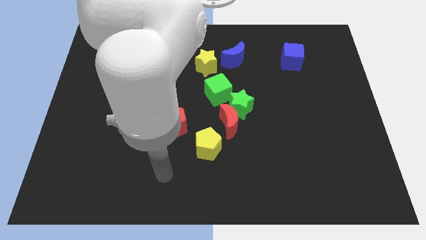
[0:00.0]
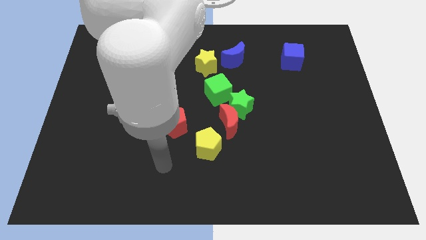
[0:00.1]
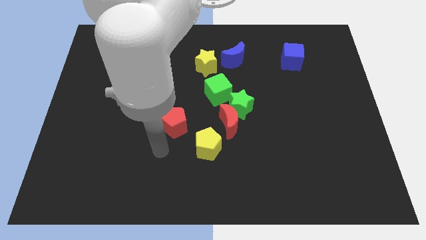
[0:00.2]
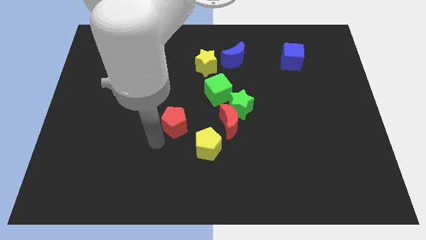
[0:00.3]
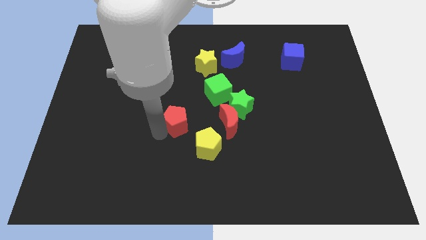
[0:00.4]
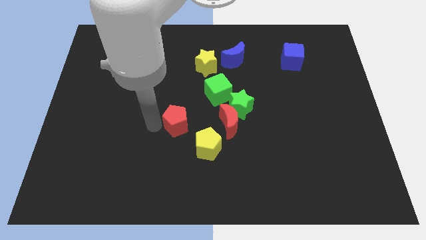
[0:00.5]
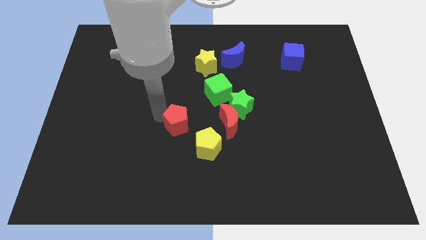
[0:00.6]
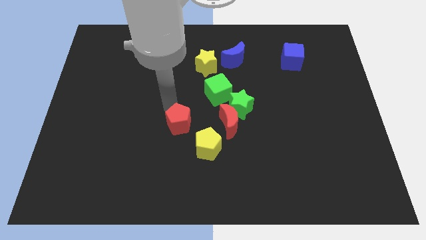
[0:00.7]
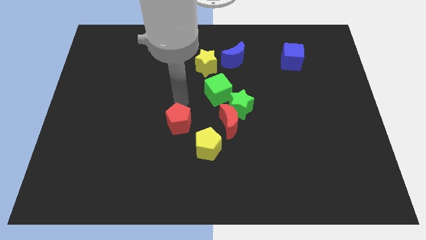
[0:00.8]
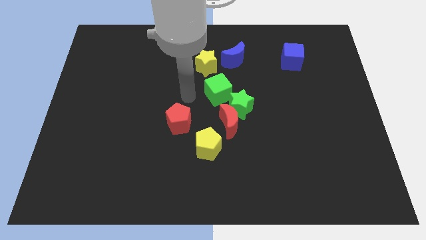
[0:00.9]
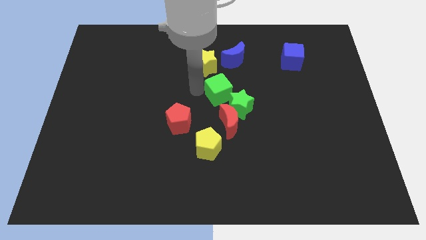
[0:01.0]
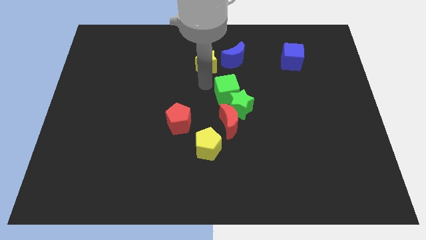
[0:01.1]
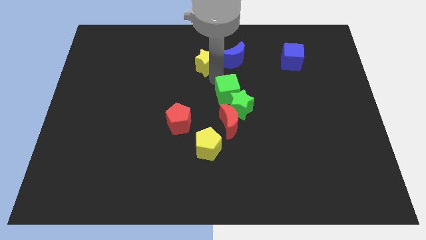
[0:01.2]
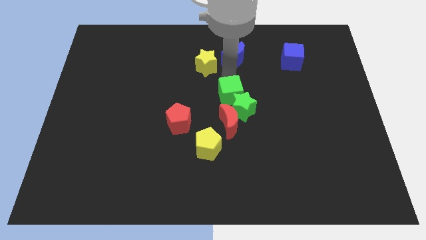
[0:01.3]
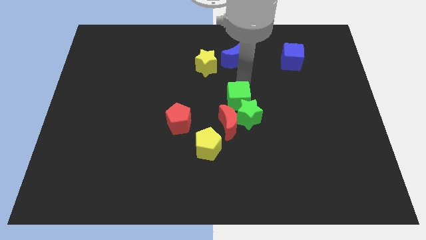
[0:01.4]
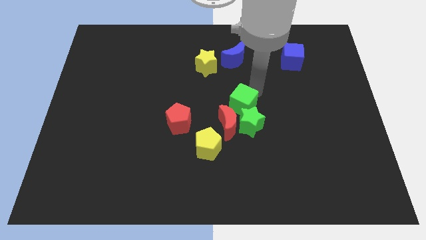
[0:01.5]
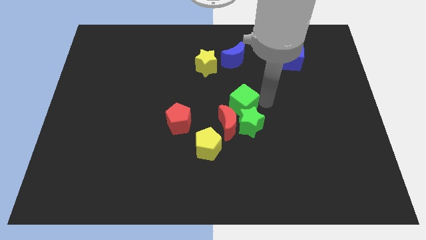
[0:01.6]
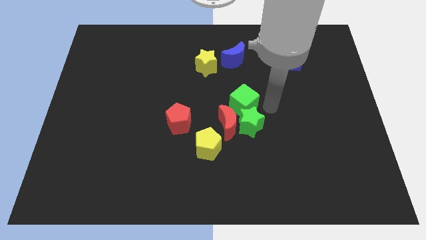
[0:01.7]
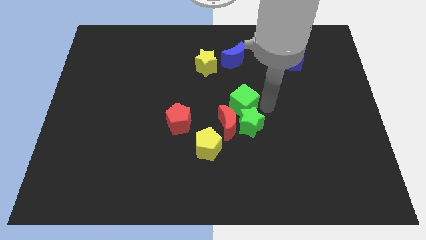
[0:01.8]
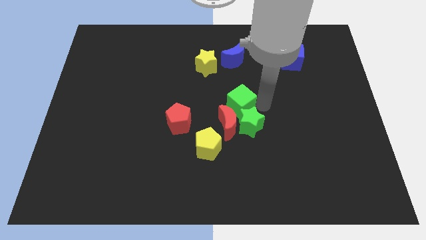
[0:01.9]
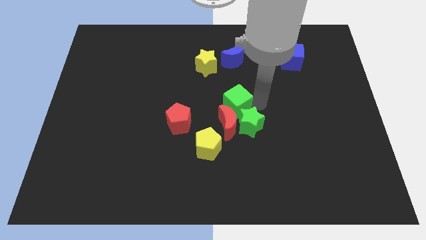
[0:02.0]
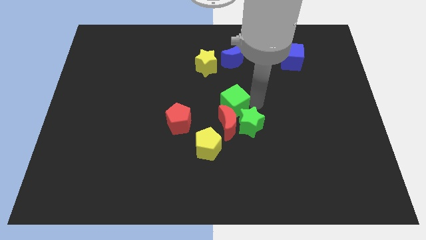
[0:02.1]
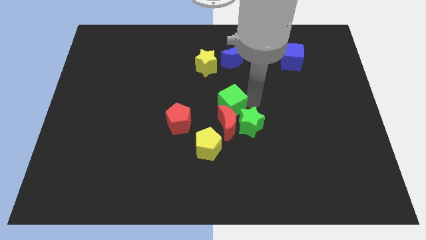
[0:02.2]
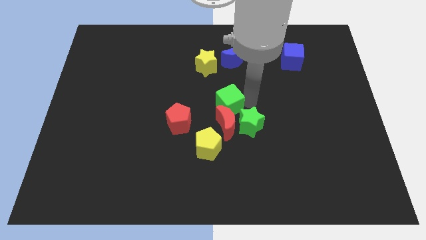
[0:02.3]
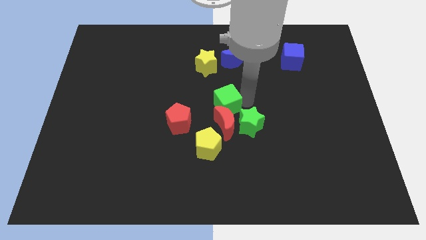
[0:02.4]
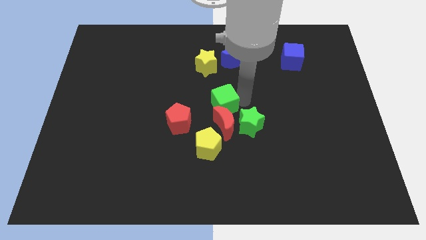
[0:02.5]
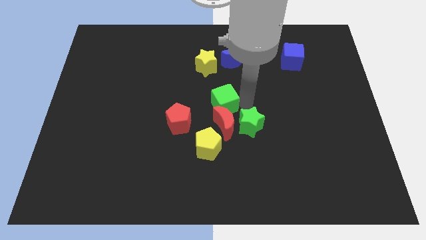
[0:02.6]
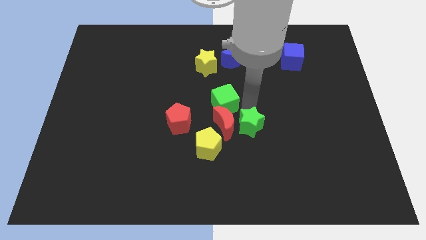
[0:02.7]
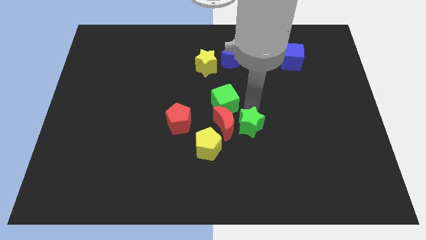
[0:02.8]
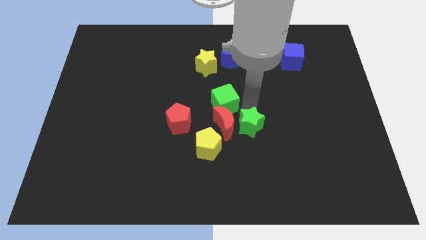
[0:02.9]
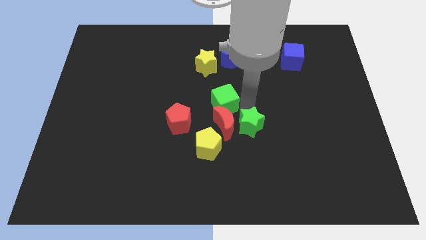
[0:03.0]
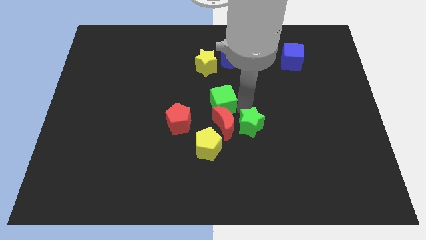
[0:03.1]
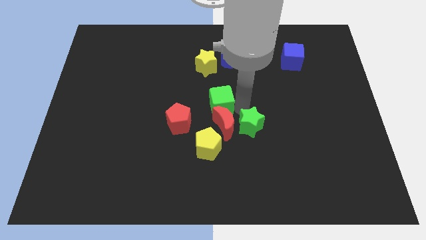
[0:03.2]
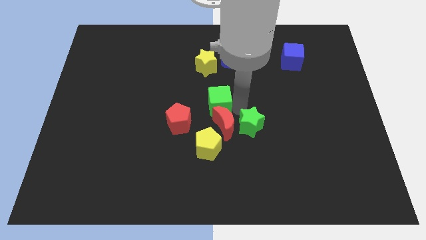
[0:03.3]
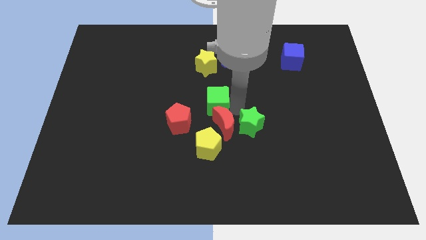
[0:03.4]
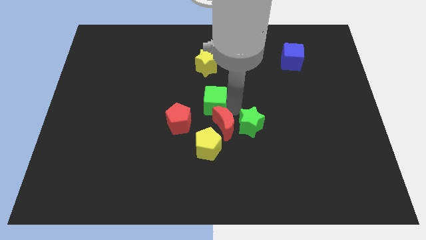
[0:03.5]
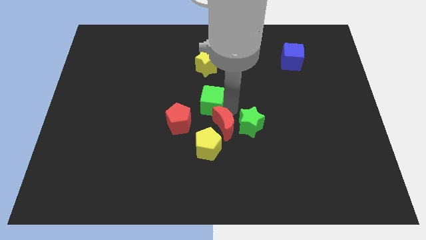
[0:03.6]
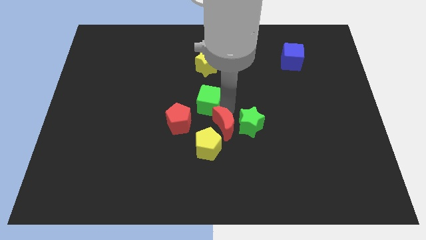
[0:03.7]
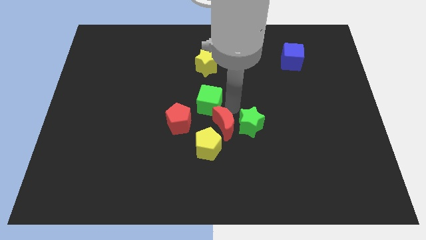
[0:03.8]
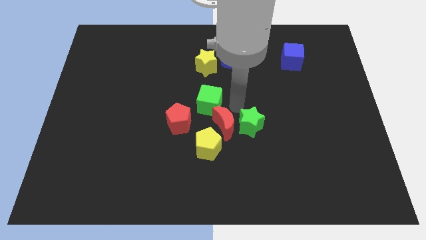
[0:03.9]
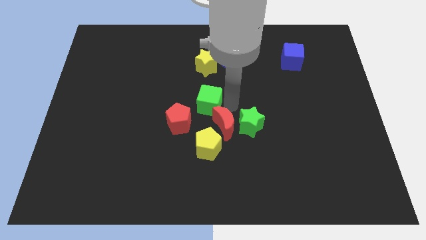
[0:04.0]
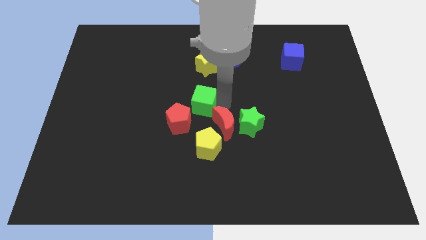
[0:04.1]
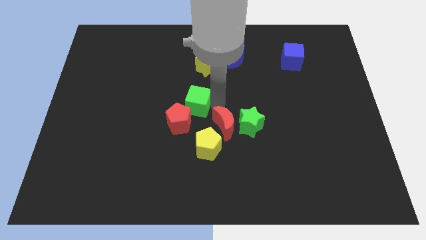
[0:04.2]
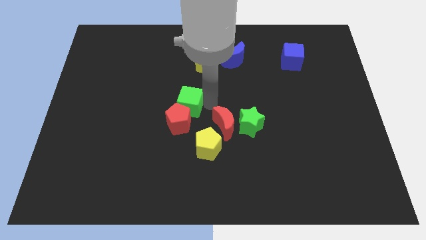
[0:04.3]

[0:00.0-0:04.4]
slightly slide the green cube down and then left

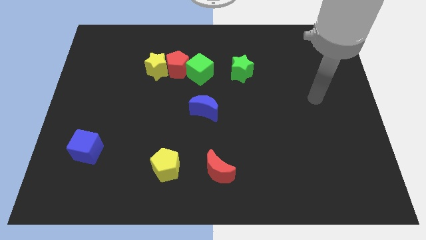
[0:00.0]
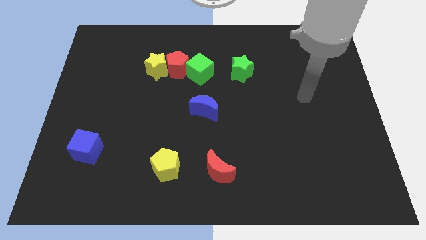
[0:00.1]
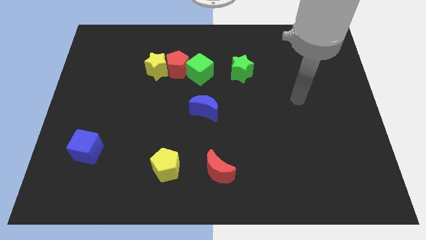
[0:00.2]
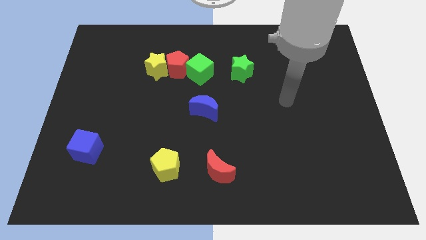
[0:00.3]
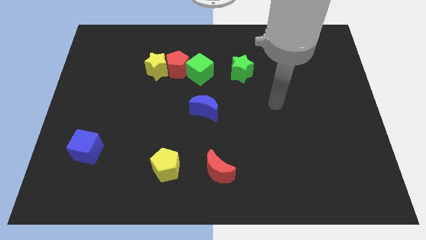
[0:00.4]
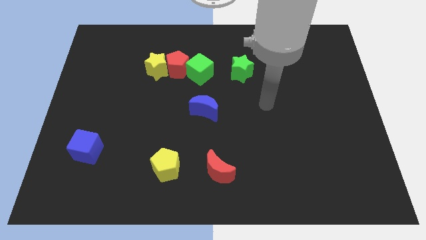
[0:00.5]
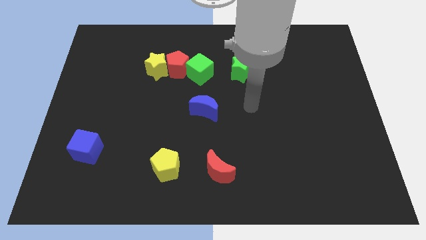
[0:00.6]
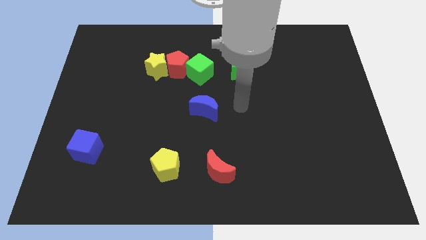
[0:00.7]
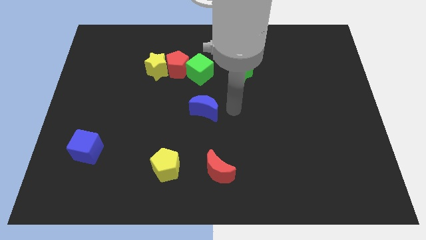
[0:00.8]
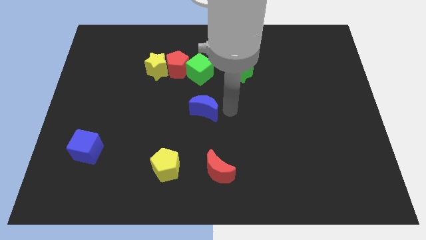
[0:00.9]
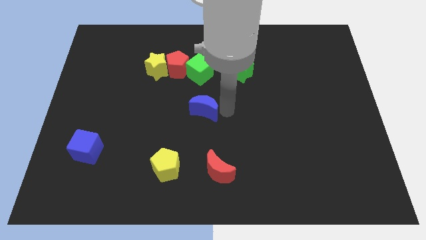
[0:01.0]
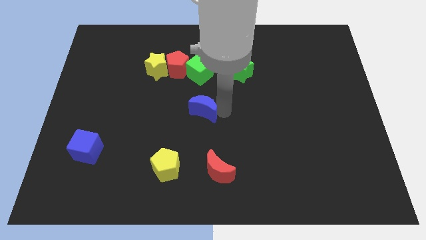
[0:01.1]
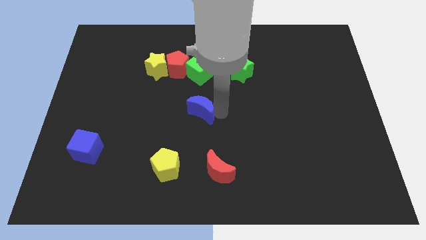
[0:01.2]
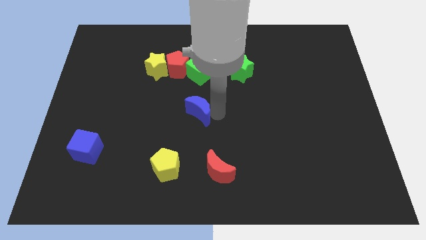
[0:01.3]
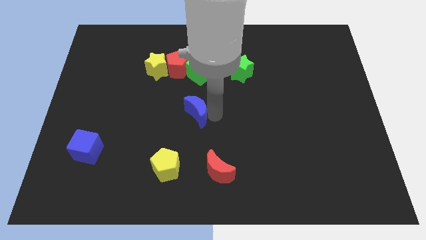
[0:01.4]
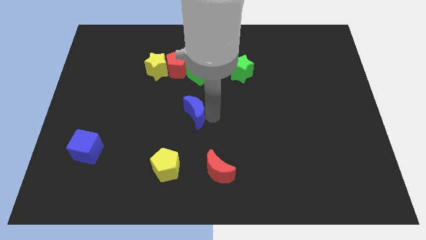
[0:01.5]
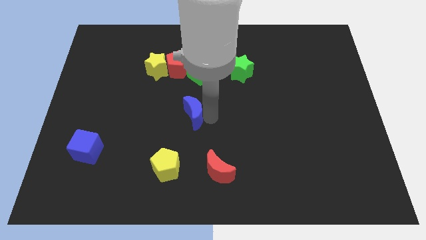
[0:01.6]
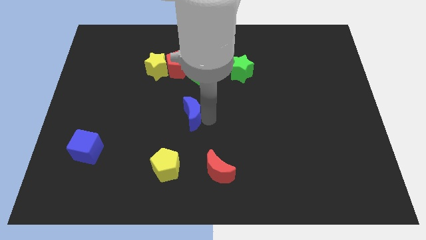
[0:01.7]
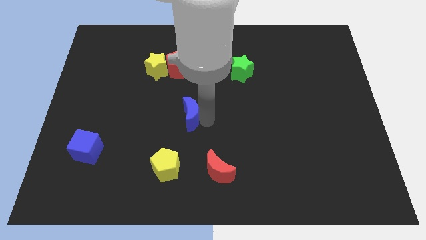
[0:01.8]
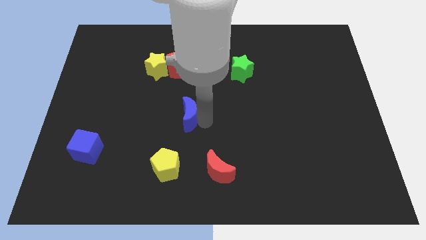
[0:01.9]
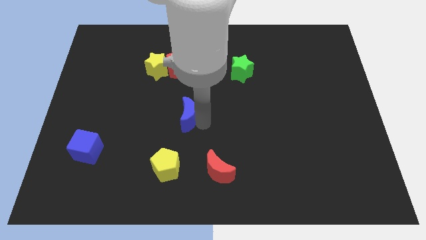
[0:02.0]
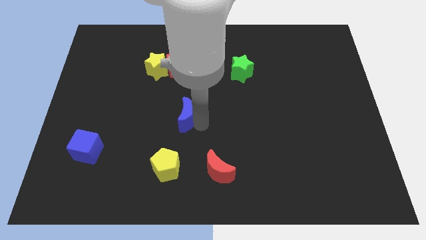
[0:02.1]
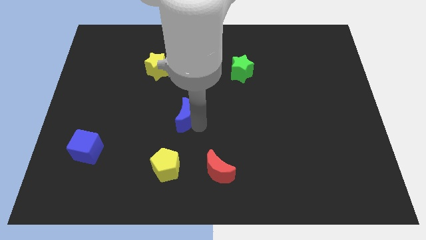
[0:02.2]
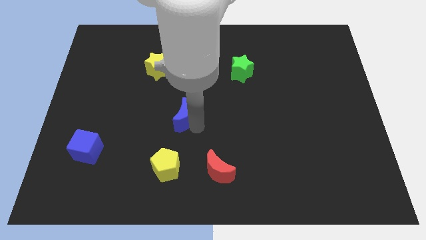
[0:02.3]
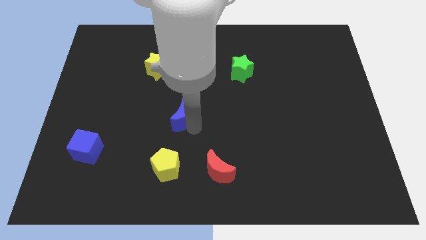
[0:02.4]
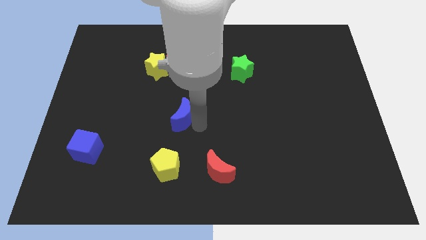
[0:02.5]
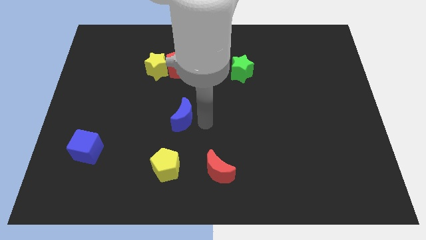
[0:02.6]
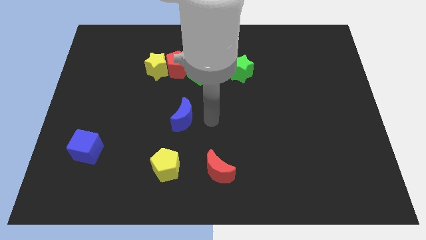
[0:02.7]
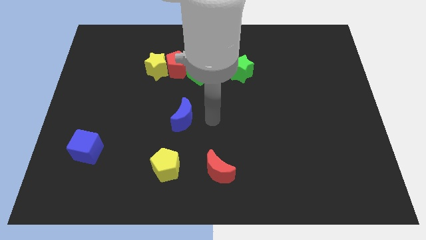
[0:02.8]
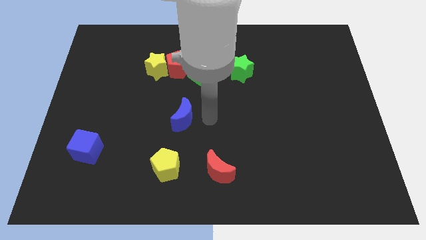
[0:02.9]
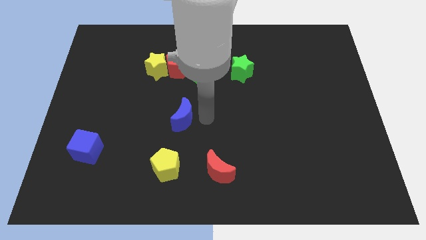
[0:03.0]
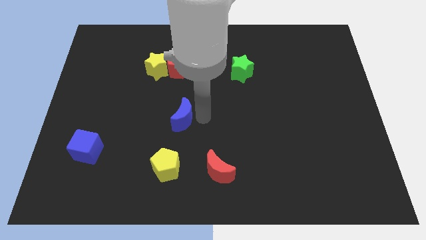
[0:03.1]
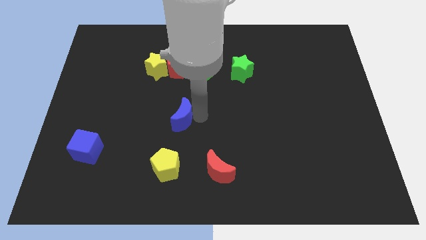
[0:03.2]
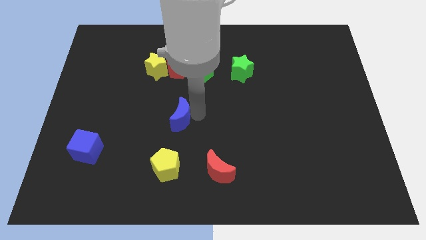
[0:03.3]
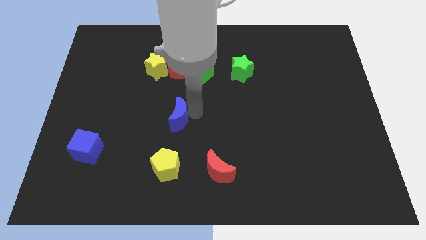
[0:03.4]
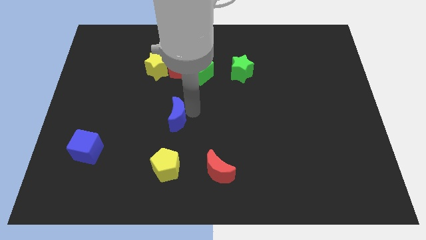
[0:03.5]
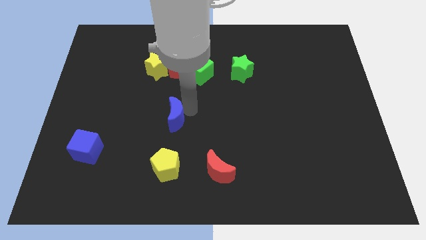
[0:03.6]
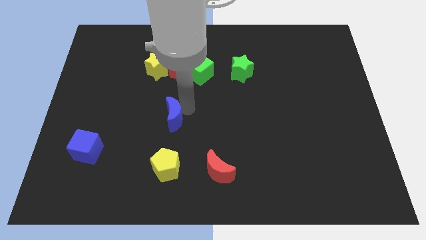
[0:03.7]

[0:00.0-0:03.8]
push the blue moon a little to the left
